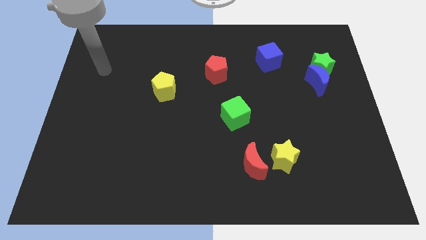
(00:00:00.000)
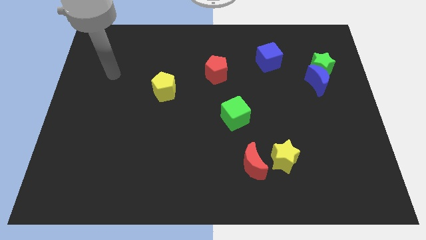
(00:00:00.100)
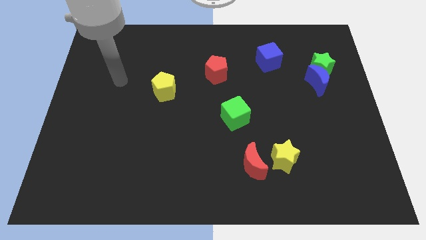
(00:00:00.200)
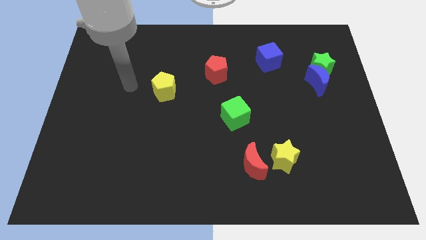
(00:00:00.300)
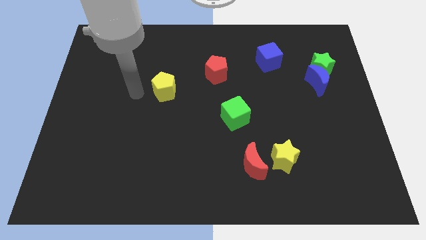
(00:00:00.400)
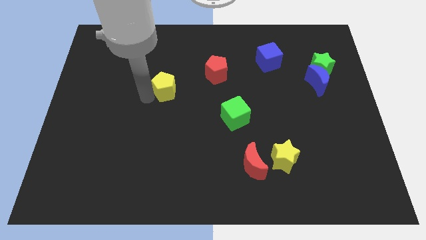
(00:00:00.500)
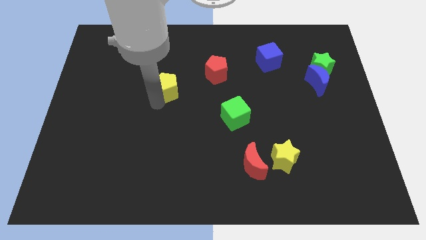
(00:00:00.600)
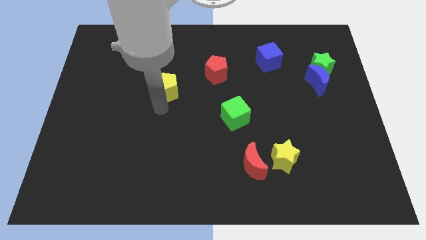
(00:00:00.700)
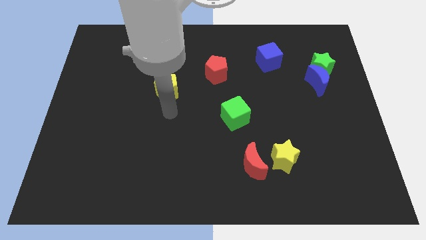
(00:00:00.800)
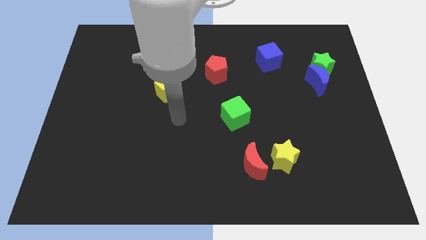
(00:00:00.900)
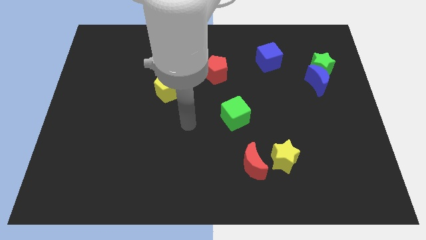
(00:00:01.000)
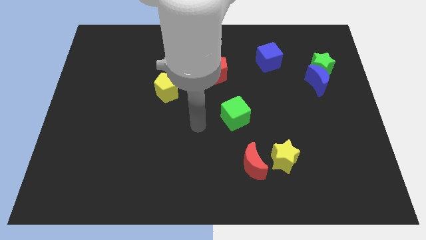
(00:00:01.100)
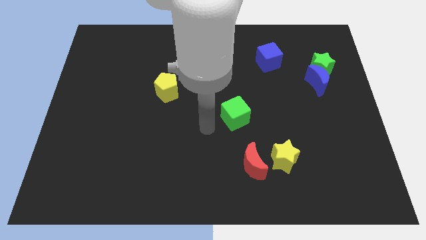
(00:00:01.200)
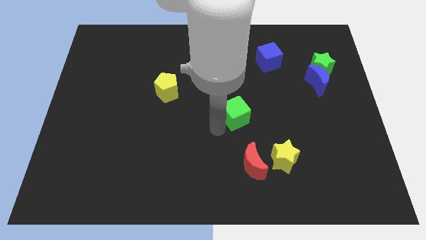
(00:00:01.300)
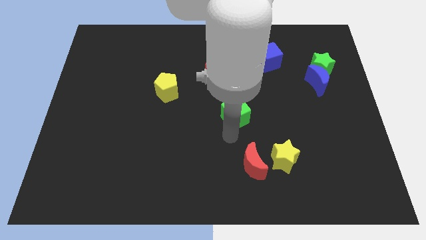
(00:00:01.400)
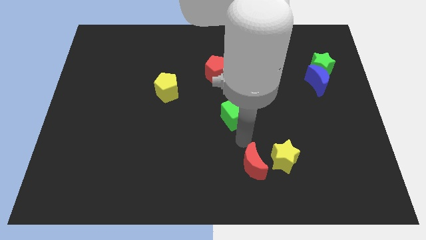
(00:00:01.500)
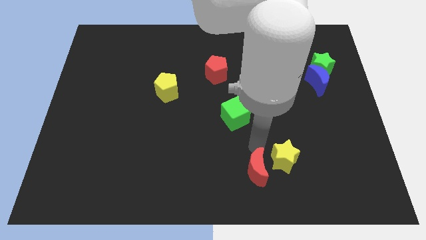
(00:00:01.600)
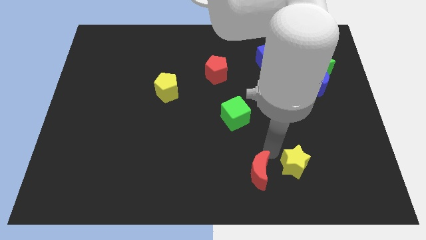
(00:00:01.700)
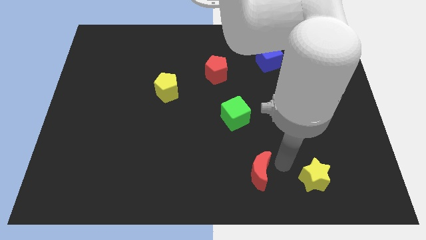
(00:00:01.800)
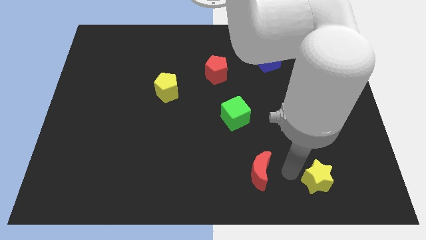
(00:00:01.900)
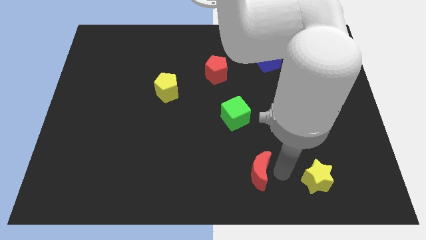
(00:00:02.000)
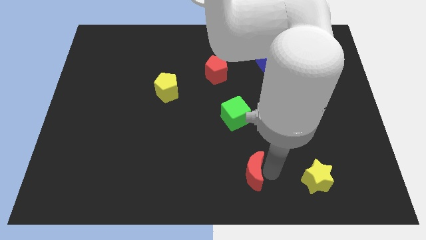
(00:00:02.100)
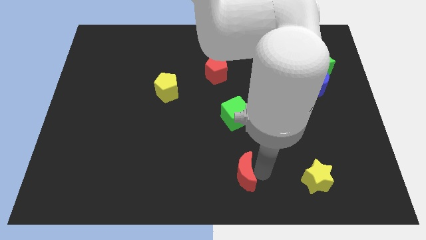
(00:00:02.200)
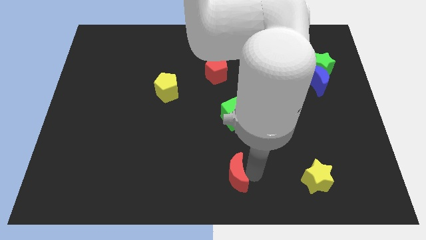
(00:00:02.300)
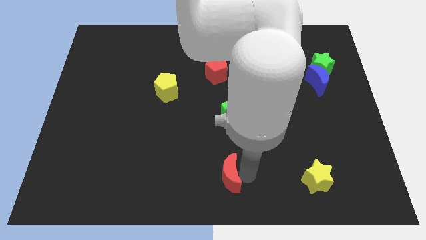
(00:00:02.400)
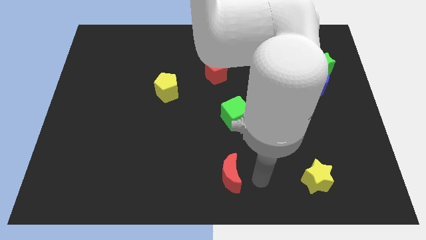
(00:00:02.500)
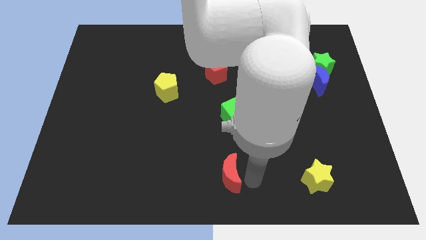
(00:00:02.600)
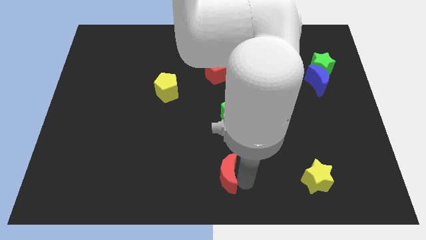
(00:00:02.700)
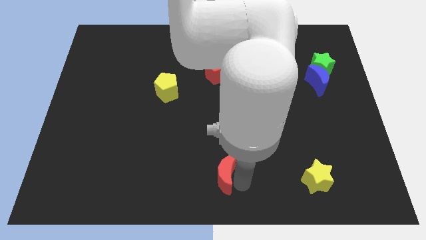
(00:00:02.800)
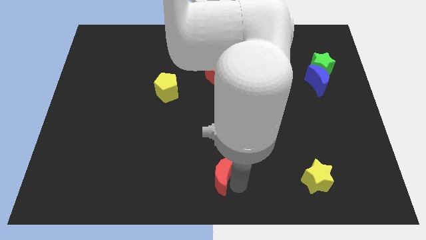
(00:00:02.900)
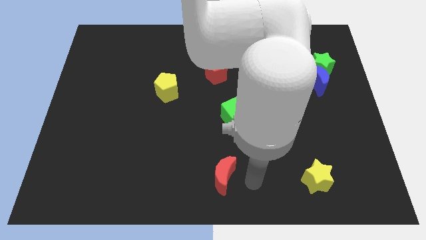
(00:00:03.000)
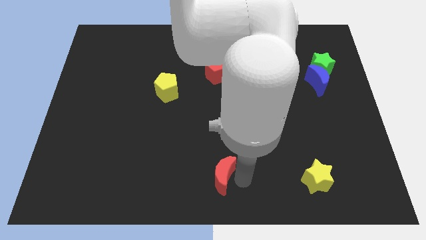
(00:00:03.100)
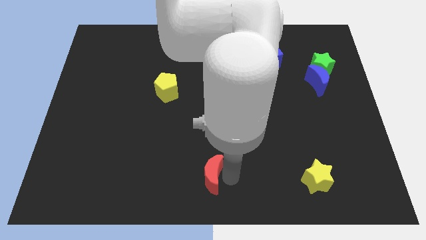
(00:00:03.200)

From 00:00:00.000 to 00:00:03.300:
slide the red moon a little left

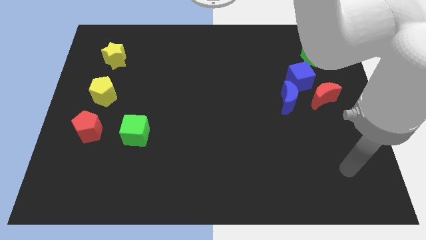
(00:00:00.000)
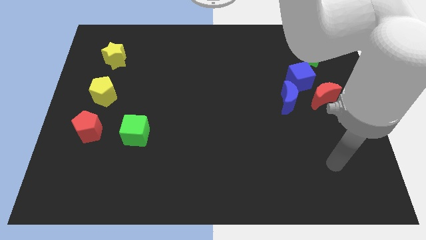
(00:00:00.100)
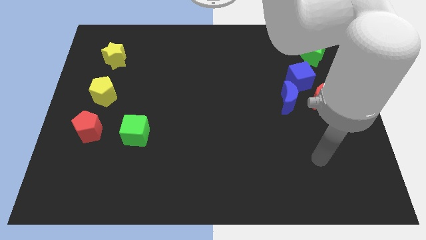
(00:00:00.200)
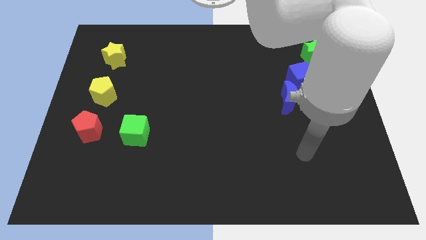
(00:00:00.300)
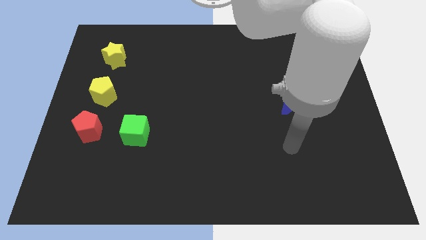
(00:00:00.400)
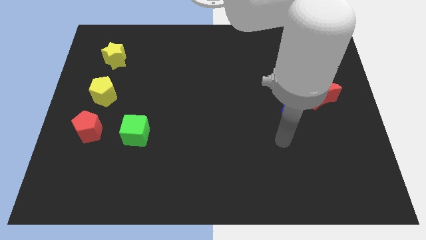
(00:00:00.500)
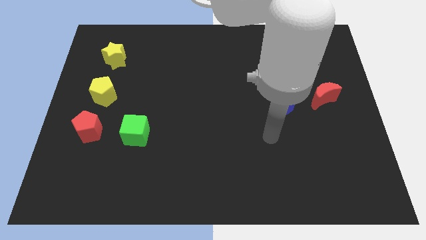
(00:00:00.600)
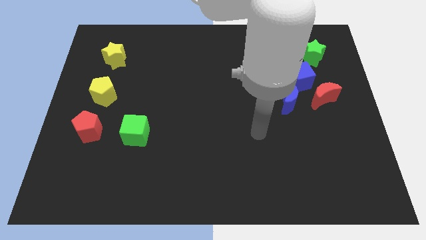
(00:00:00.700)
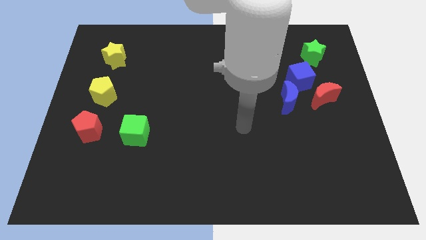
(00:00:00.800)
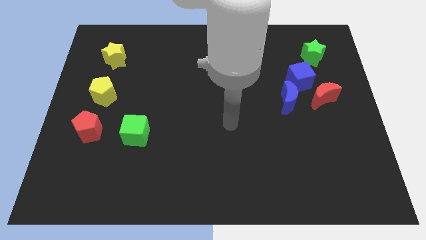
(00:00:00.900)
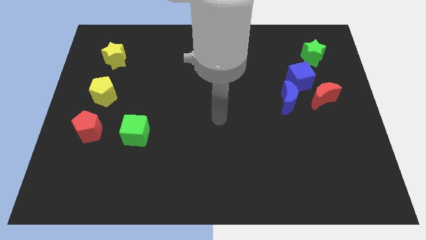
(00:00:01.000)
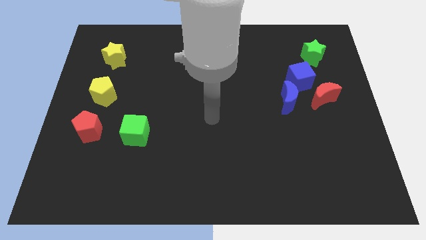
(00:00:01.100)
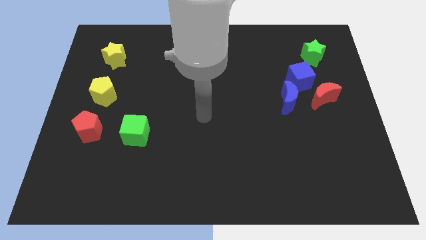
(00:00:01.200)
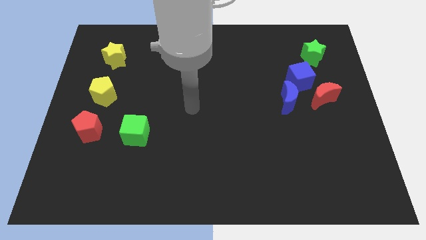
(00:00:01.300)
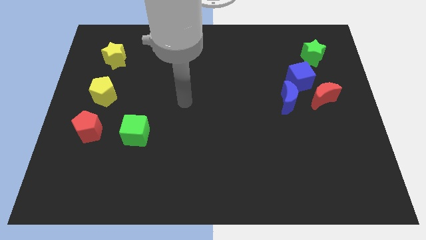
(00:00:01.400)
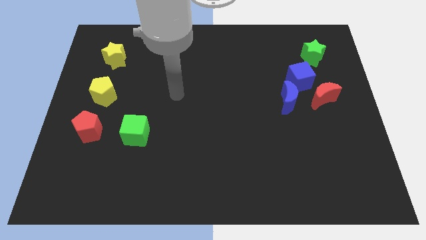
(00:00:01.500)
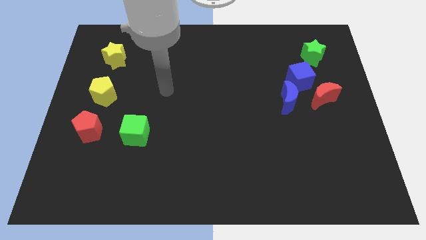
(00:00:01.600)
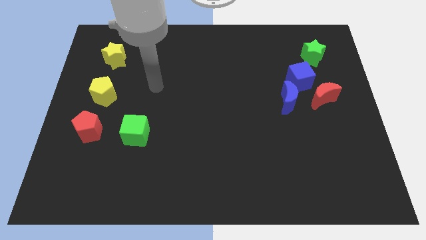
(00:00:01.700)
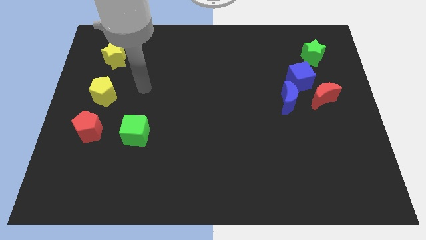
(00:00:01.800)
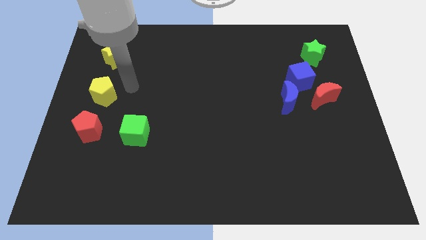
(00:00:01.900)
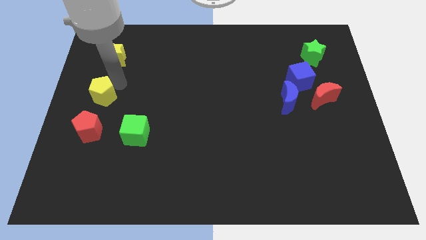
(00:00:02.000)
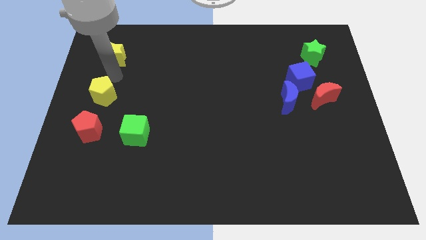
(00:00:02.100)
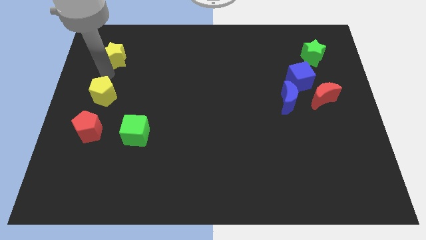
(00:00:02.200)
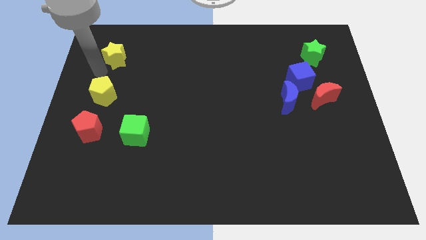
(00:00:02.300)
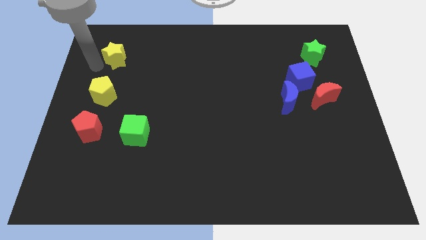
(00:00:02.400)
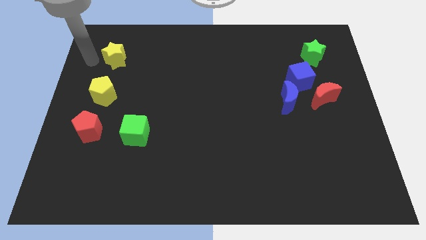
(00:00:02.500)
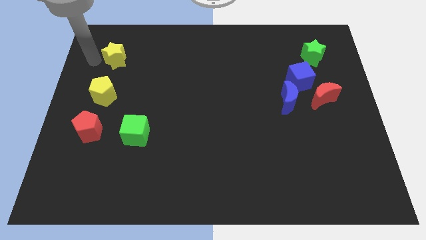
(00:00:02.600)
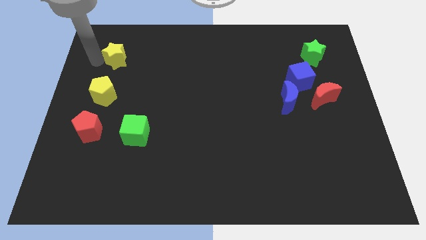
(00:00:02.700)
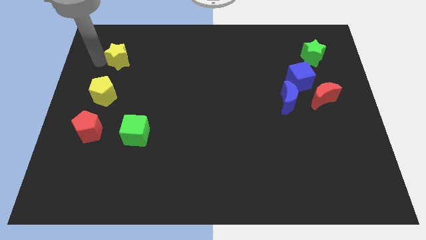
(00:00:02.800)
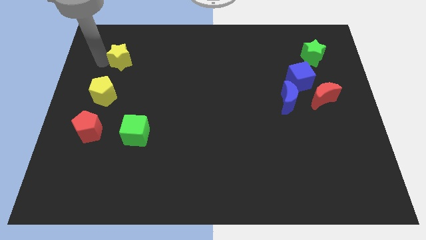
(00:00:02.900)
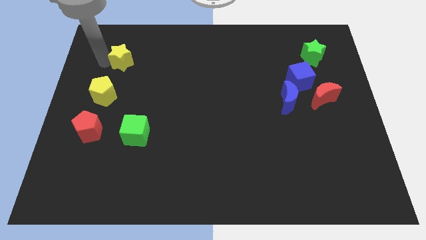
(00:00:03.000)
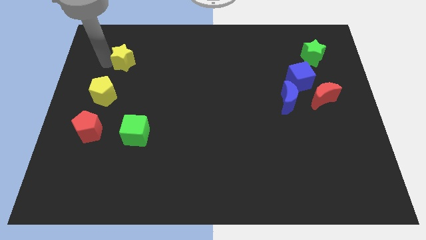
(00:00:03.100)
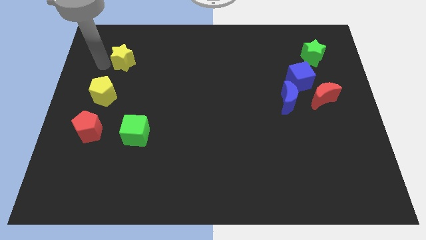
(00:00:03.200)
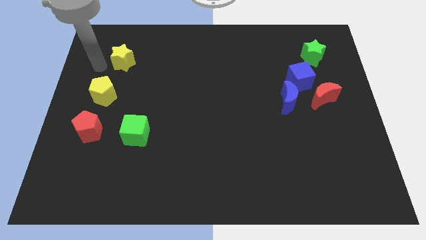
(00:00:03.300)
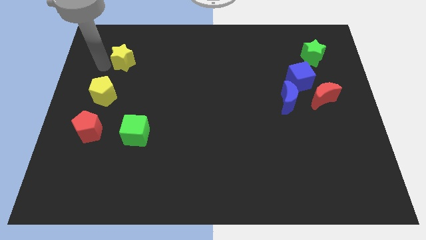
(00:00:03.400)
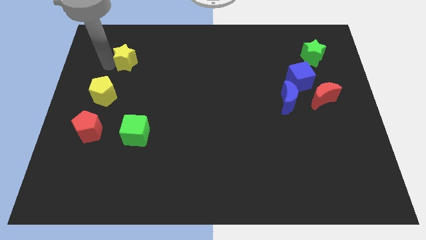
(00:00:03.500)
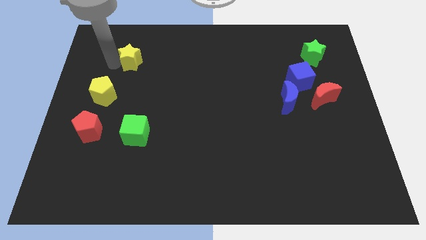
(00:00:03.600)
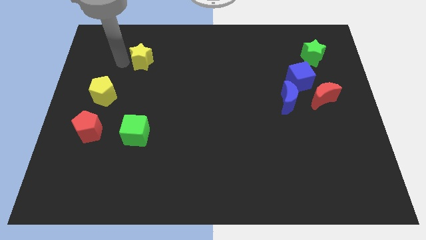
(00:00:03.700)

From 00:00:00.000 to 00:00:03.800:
slightly push the yellow star right

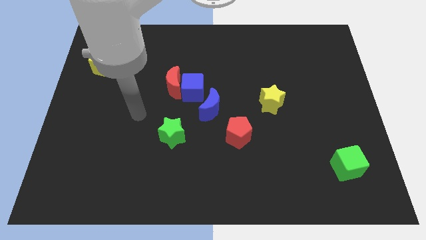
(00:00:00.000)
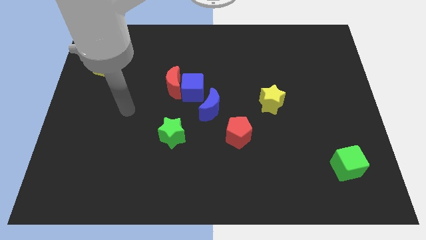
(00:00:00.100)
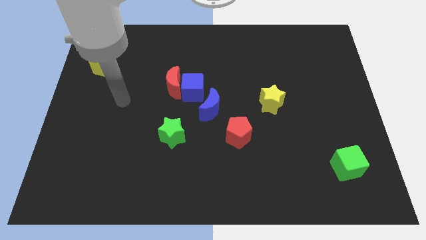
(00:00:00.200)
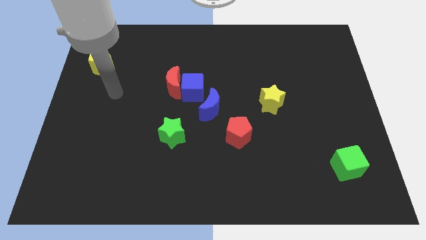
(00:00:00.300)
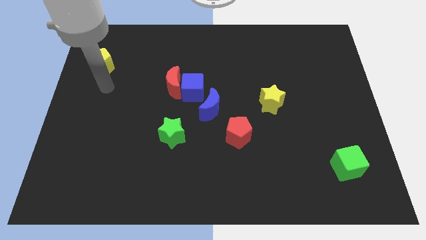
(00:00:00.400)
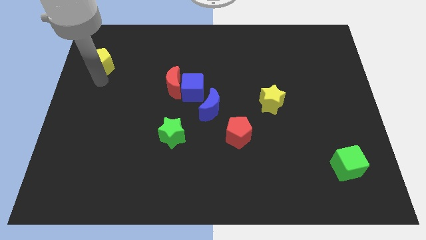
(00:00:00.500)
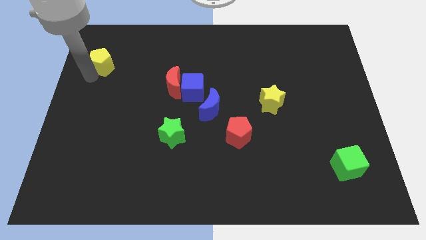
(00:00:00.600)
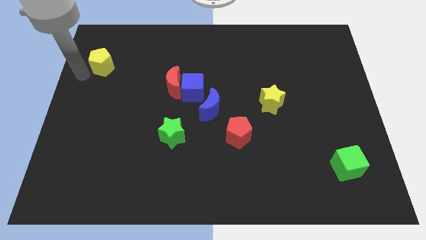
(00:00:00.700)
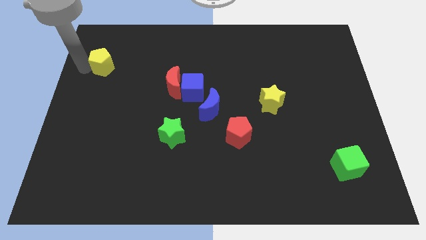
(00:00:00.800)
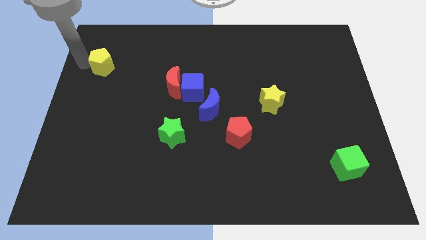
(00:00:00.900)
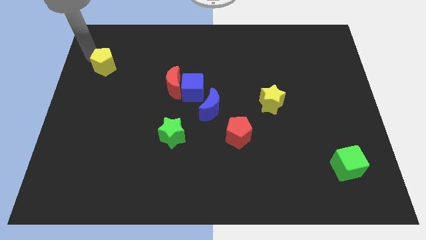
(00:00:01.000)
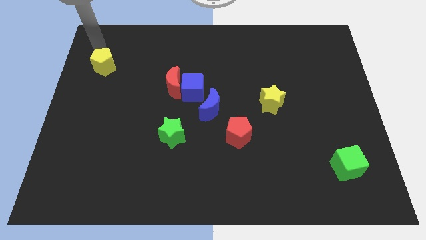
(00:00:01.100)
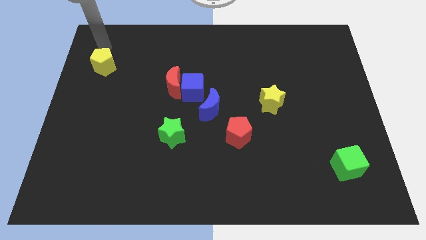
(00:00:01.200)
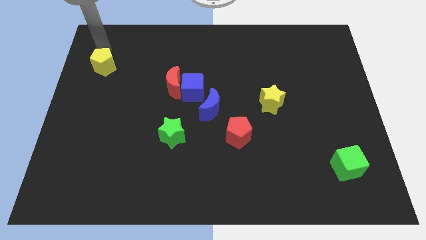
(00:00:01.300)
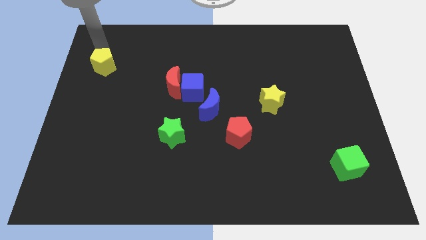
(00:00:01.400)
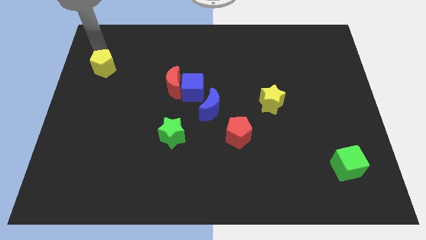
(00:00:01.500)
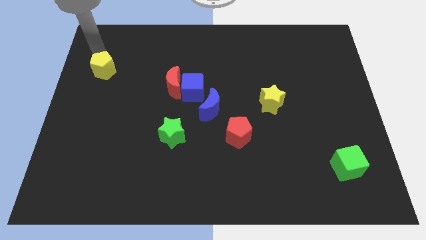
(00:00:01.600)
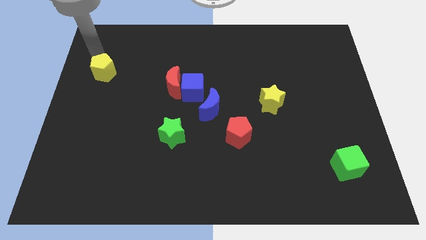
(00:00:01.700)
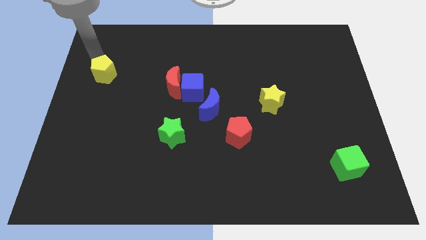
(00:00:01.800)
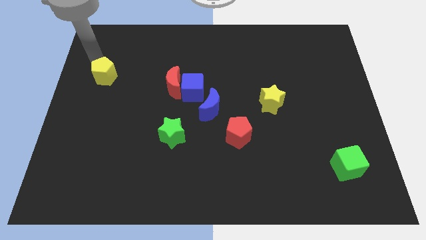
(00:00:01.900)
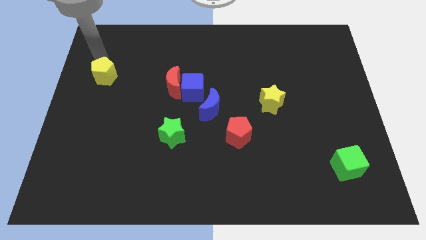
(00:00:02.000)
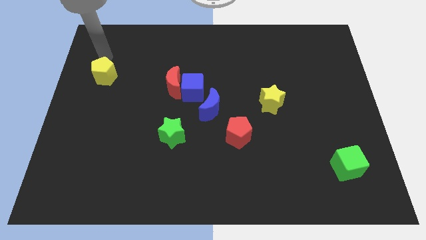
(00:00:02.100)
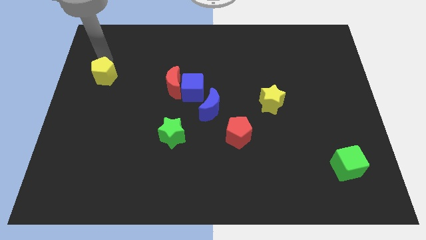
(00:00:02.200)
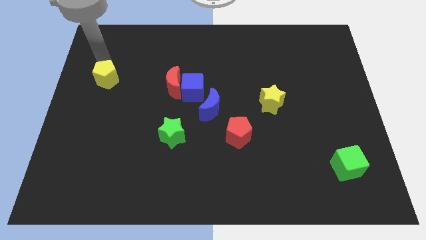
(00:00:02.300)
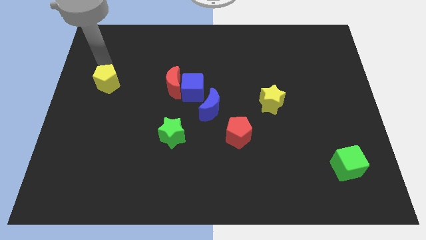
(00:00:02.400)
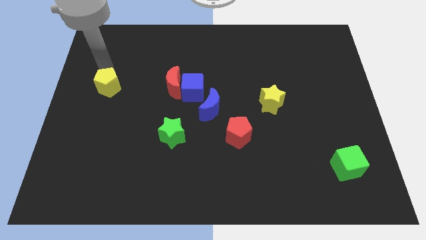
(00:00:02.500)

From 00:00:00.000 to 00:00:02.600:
move the yellow pentagon downwards somewhat
